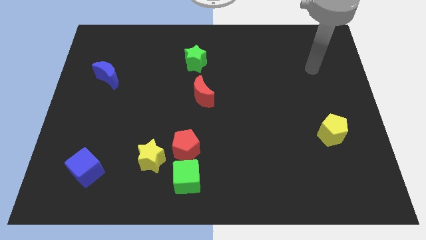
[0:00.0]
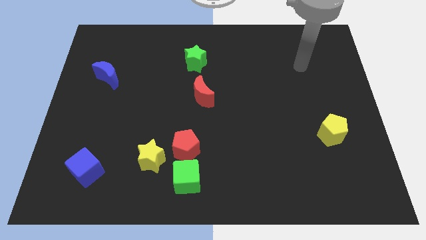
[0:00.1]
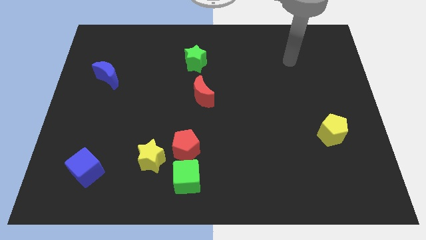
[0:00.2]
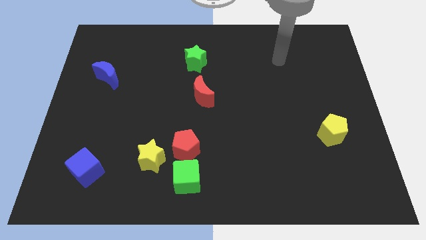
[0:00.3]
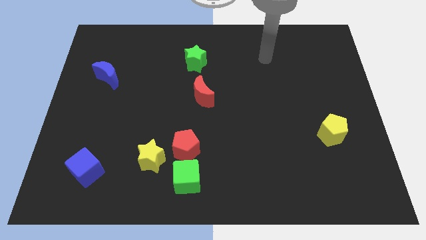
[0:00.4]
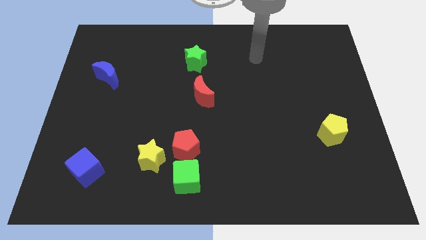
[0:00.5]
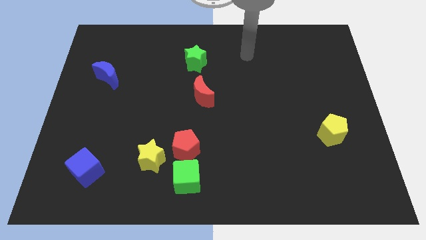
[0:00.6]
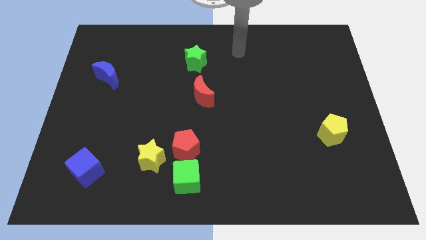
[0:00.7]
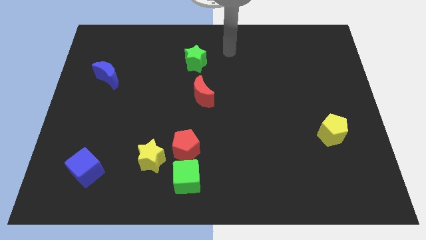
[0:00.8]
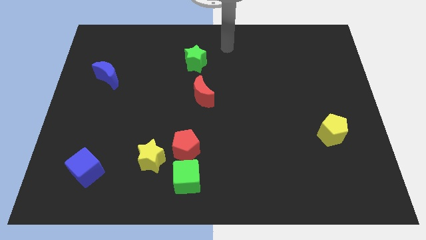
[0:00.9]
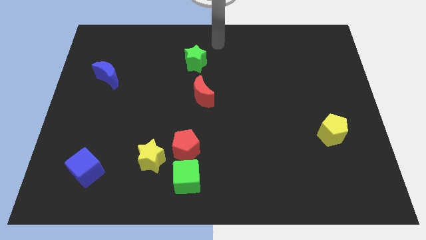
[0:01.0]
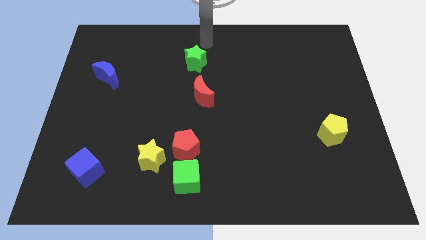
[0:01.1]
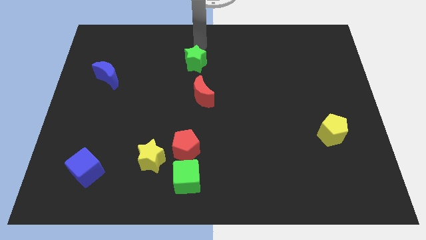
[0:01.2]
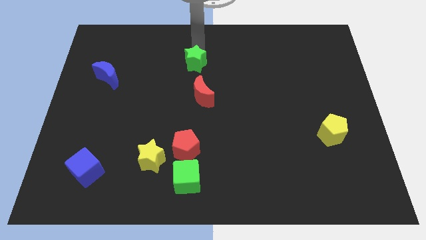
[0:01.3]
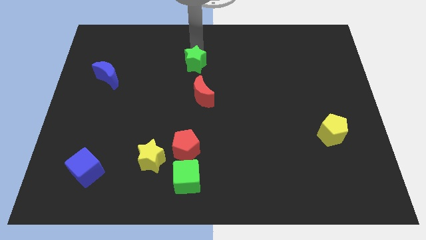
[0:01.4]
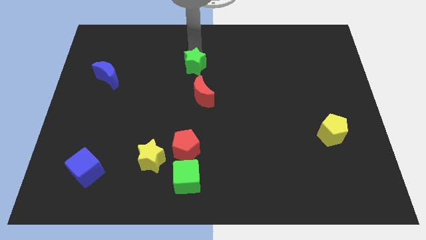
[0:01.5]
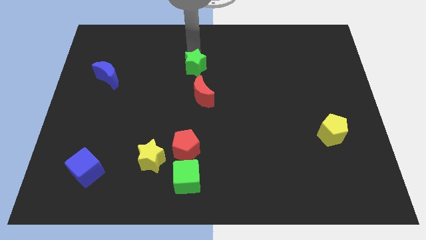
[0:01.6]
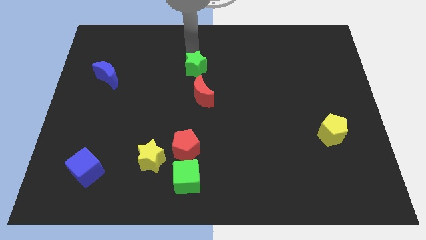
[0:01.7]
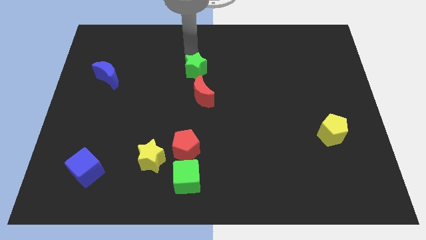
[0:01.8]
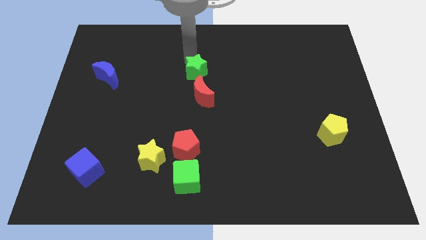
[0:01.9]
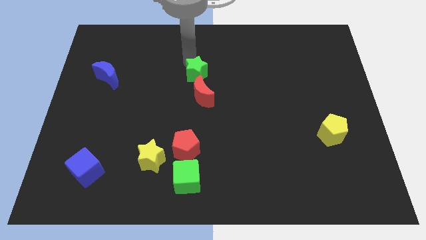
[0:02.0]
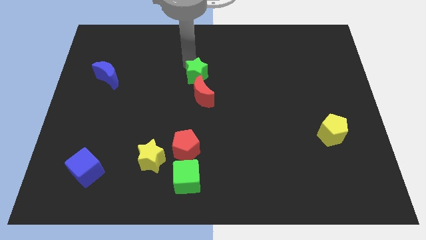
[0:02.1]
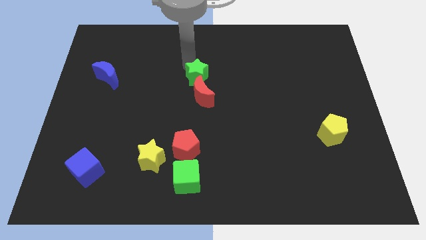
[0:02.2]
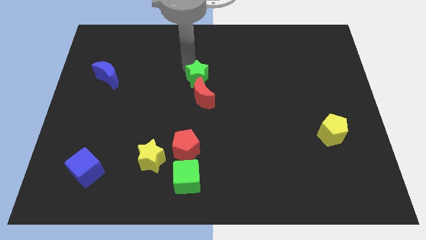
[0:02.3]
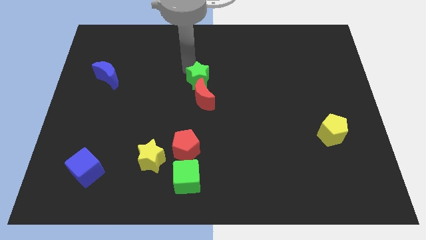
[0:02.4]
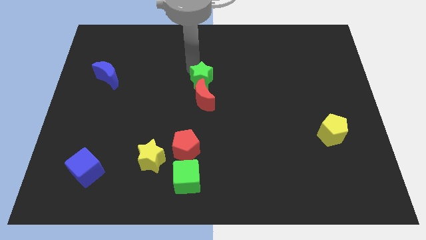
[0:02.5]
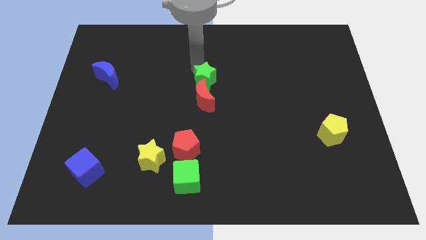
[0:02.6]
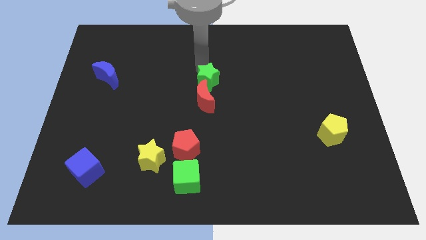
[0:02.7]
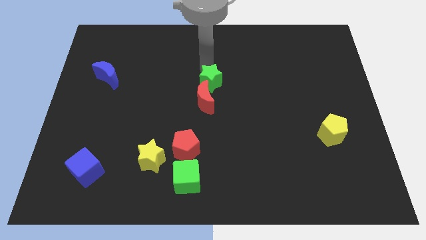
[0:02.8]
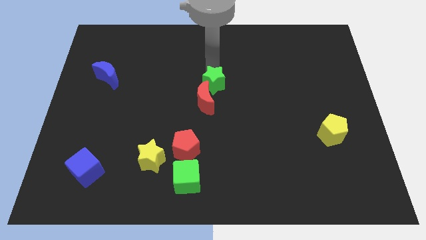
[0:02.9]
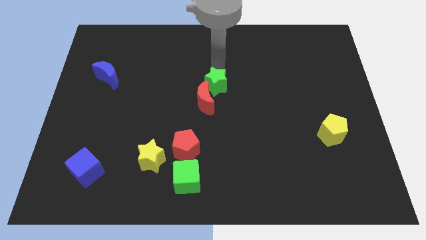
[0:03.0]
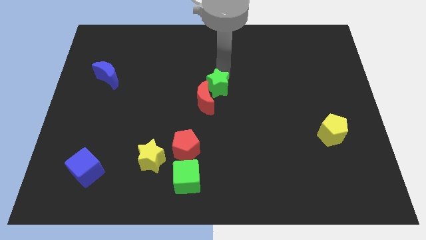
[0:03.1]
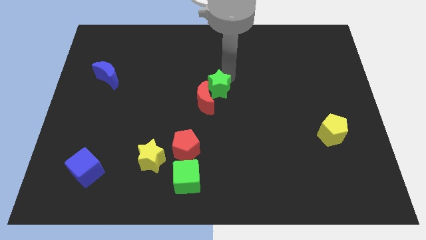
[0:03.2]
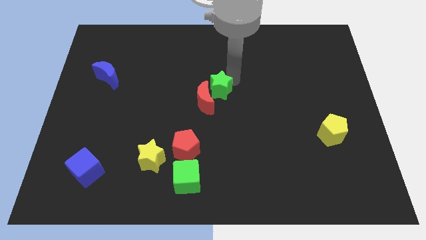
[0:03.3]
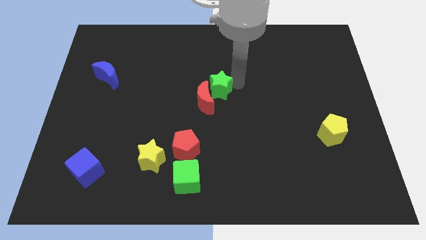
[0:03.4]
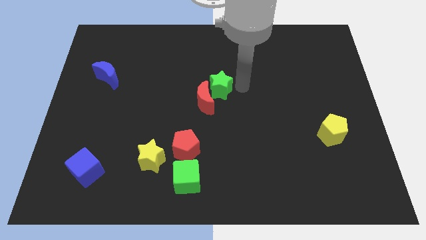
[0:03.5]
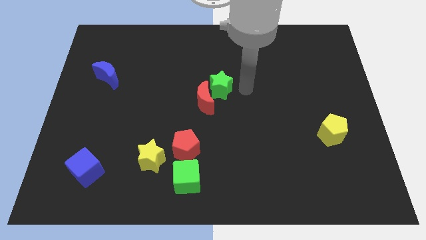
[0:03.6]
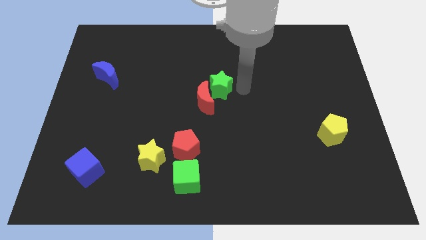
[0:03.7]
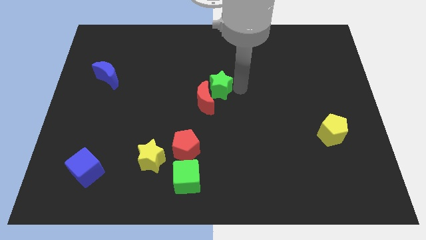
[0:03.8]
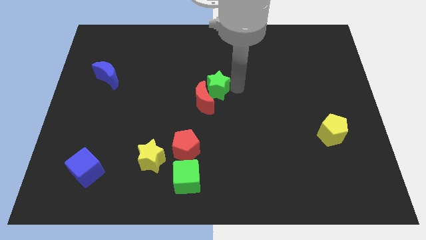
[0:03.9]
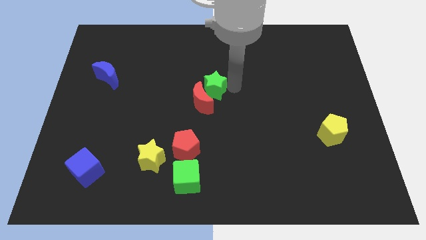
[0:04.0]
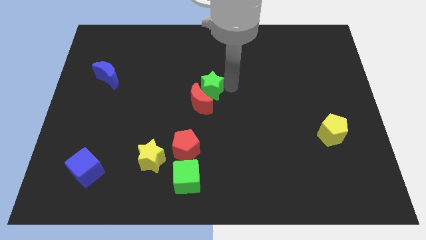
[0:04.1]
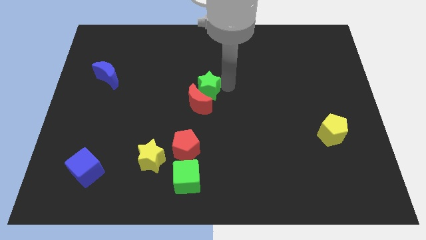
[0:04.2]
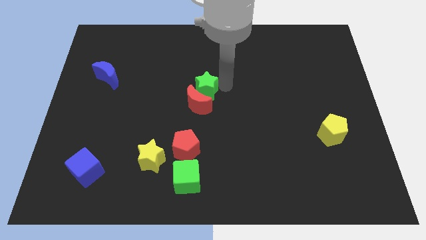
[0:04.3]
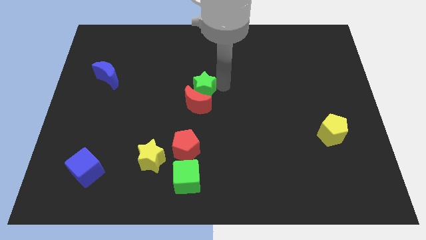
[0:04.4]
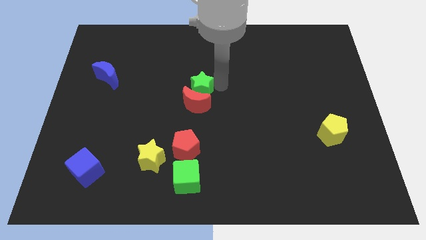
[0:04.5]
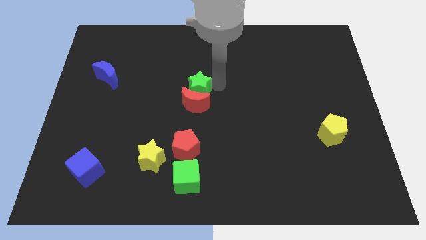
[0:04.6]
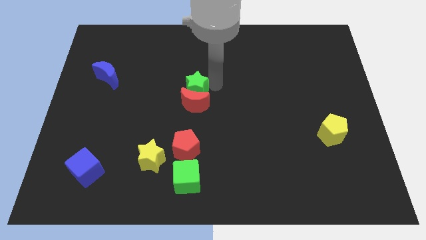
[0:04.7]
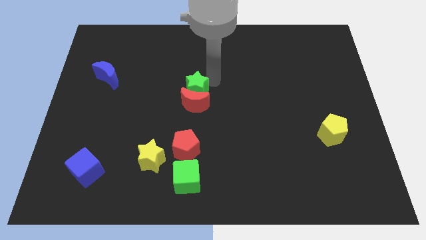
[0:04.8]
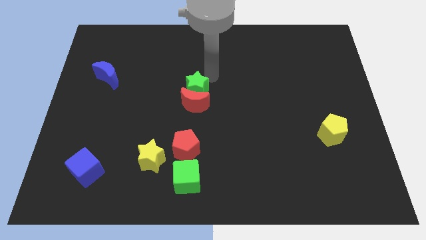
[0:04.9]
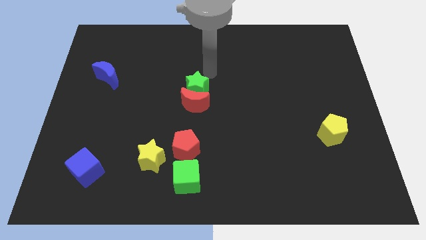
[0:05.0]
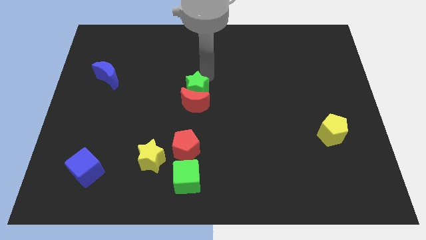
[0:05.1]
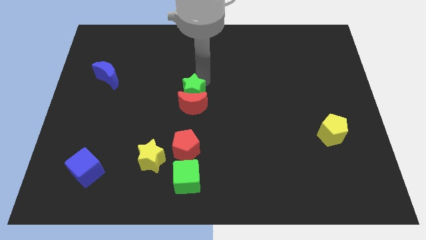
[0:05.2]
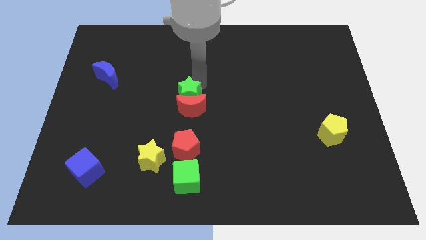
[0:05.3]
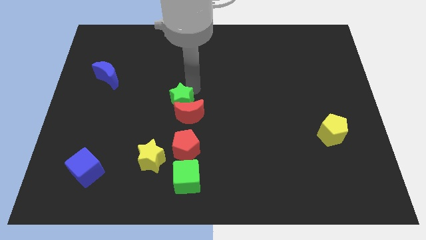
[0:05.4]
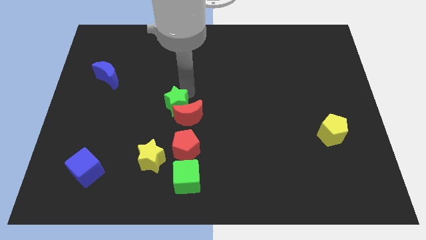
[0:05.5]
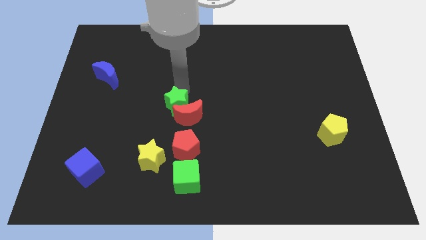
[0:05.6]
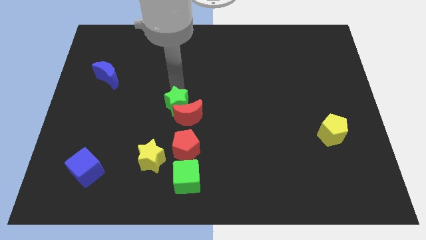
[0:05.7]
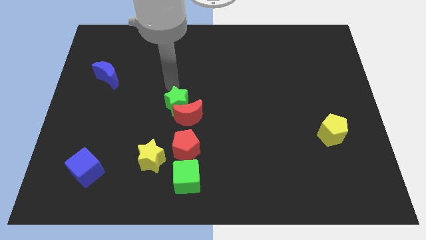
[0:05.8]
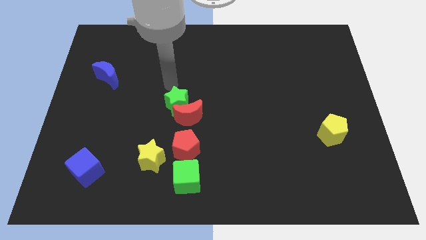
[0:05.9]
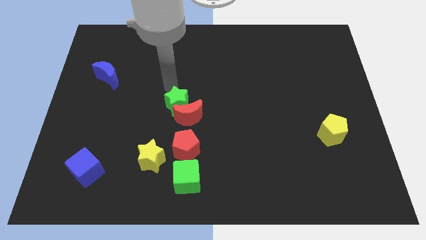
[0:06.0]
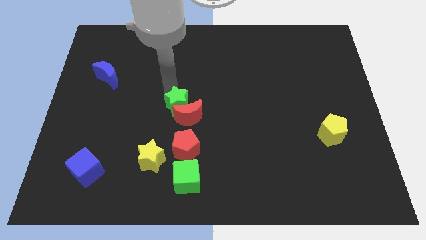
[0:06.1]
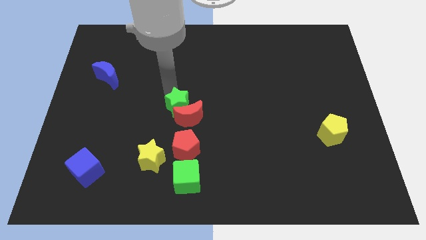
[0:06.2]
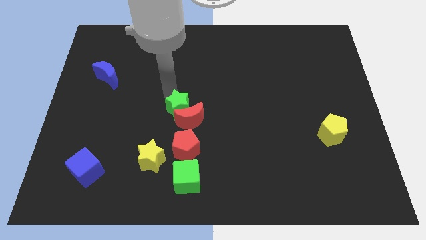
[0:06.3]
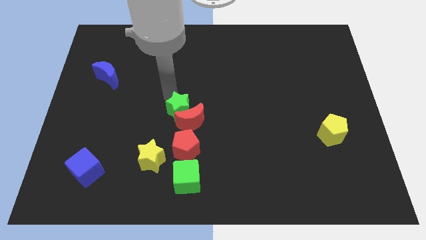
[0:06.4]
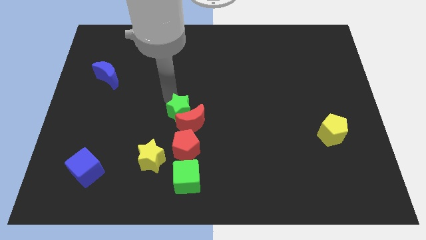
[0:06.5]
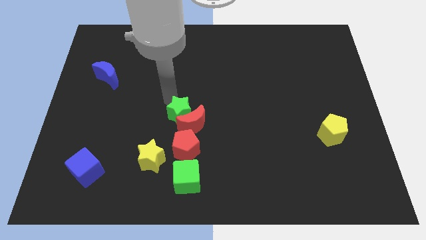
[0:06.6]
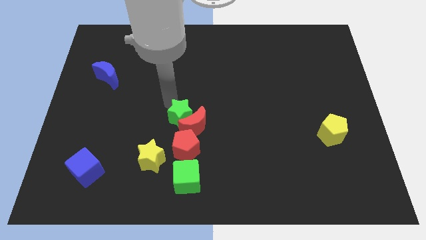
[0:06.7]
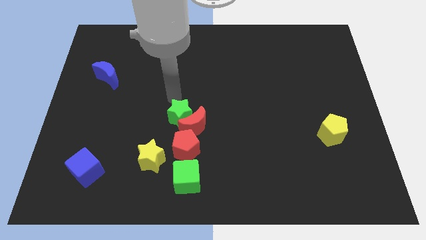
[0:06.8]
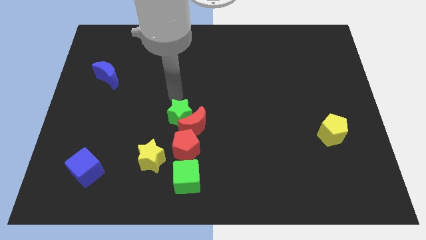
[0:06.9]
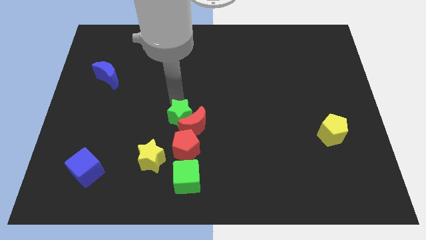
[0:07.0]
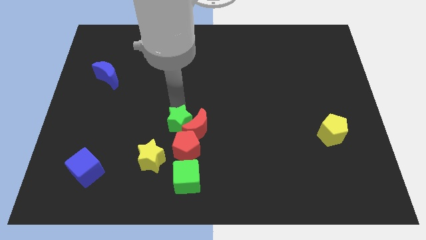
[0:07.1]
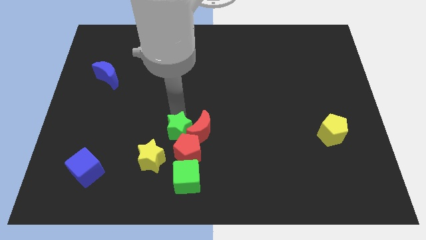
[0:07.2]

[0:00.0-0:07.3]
move the green star towards the red pentagon
